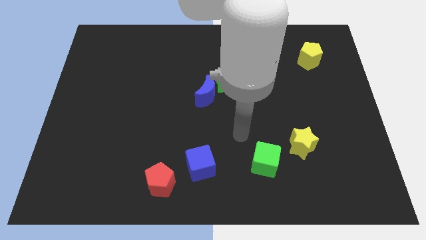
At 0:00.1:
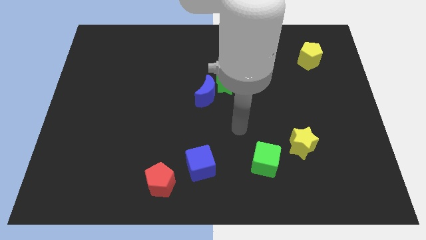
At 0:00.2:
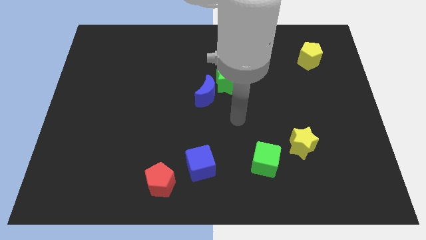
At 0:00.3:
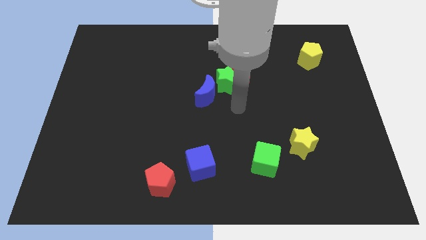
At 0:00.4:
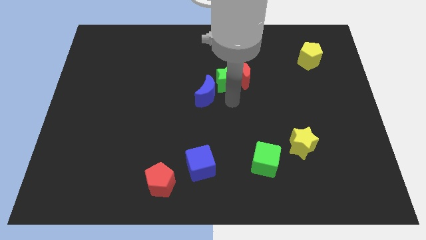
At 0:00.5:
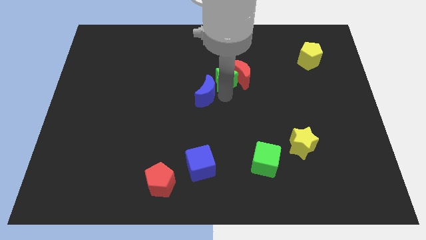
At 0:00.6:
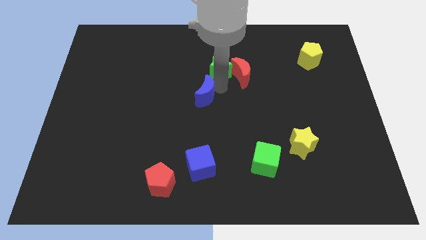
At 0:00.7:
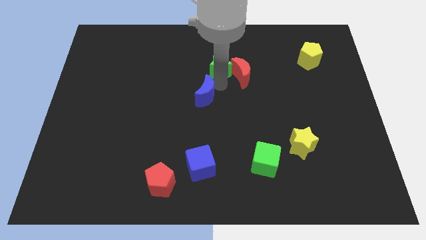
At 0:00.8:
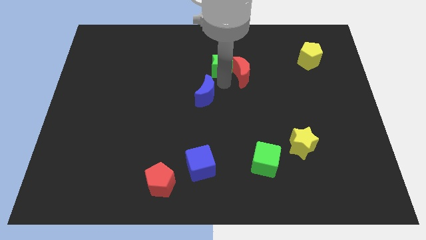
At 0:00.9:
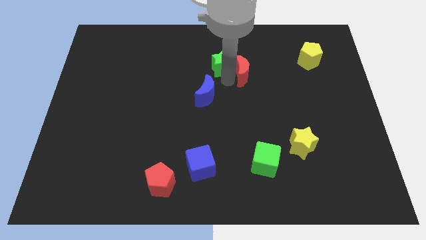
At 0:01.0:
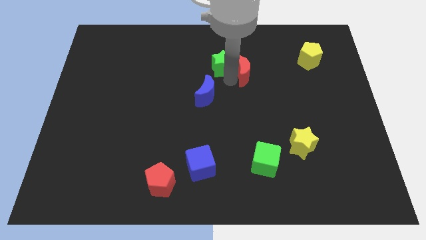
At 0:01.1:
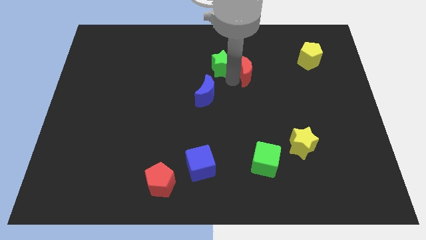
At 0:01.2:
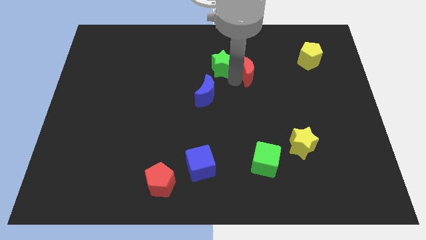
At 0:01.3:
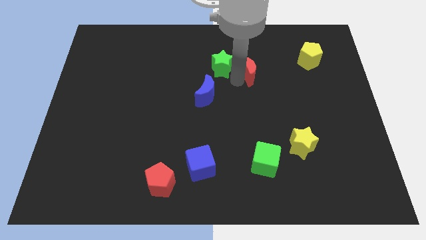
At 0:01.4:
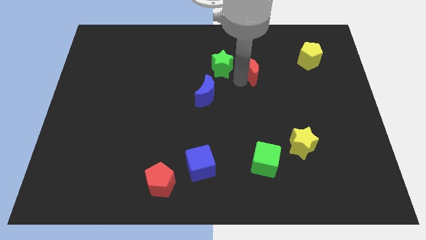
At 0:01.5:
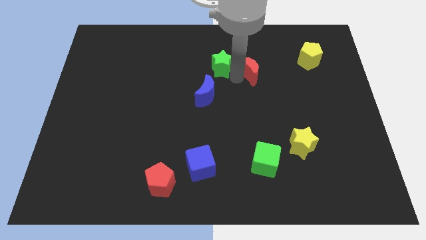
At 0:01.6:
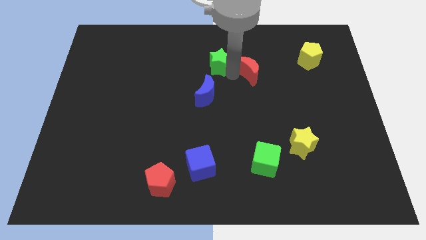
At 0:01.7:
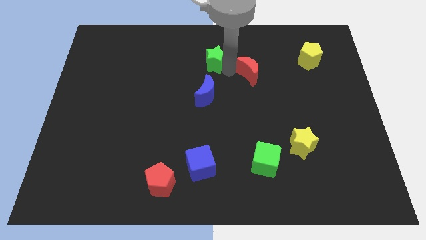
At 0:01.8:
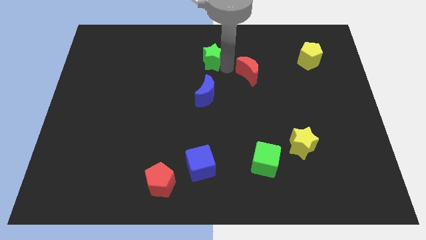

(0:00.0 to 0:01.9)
separate the red moon from the green star

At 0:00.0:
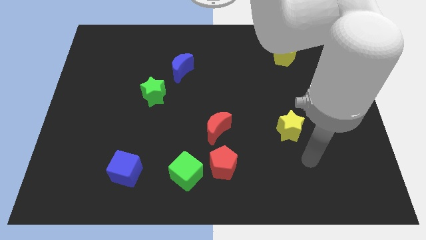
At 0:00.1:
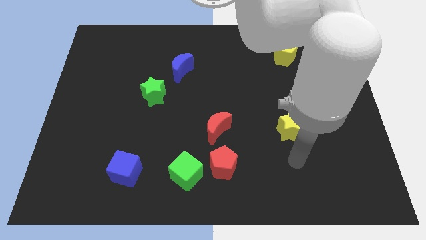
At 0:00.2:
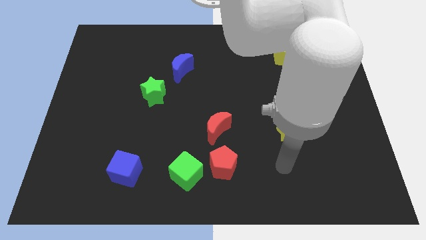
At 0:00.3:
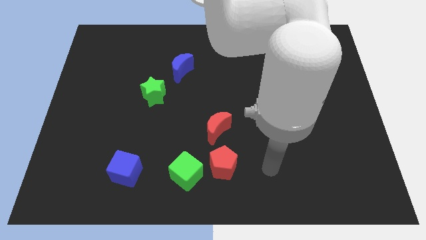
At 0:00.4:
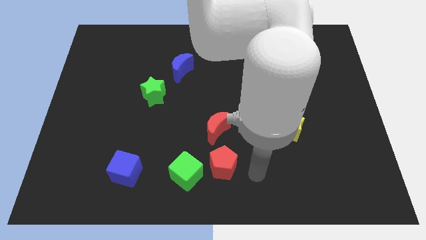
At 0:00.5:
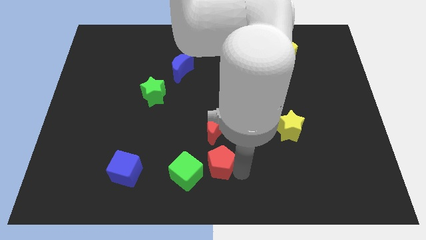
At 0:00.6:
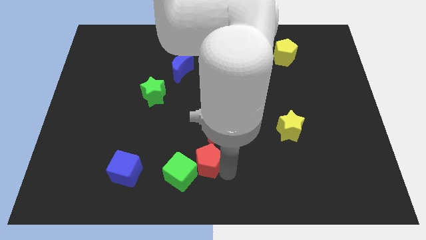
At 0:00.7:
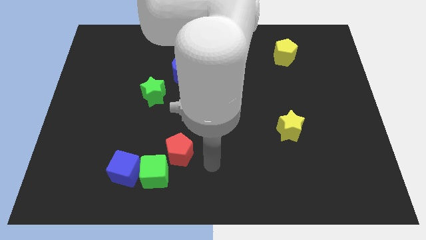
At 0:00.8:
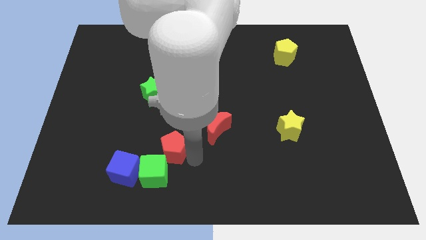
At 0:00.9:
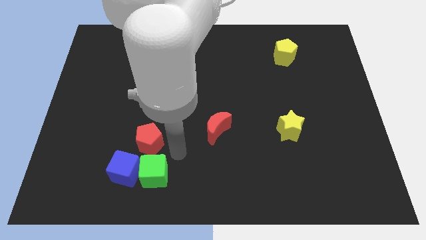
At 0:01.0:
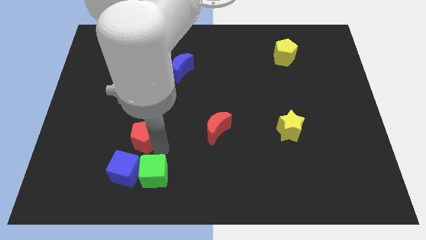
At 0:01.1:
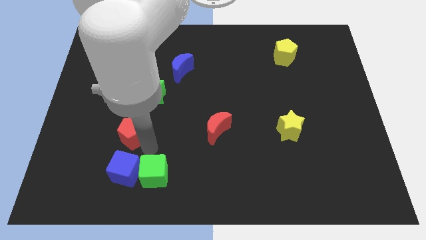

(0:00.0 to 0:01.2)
separate the green cube from the red pentagon

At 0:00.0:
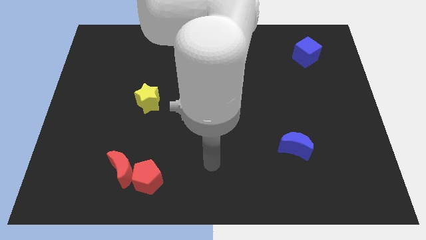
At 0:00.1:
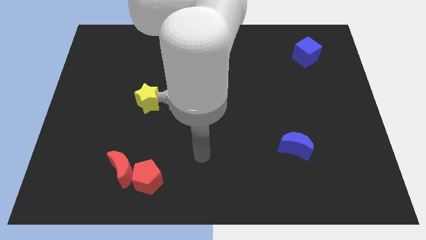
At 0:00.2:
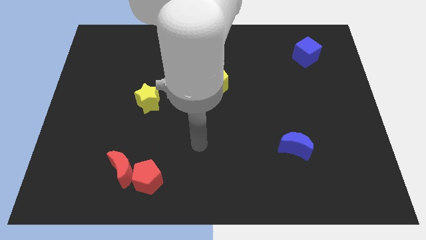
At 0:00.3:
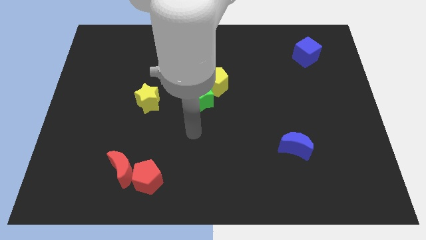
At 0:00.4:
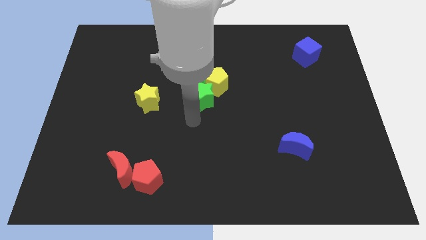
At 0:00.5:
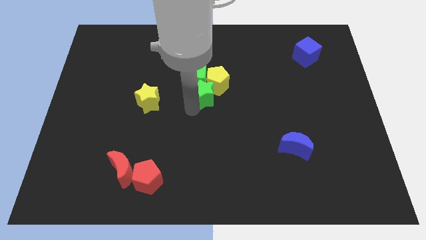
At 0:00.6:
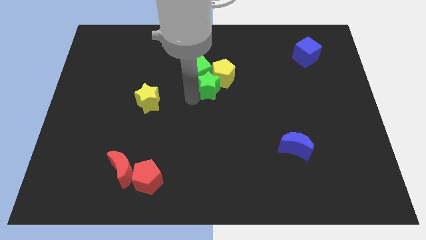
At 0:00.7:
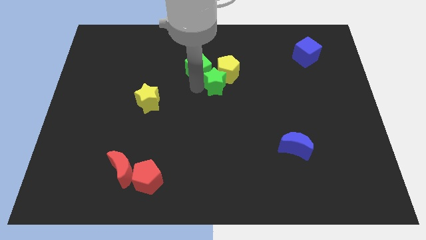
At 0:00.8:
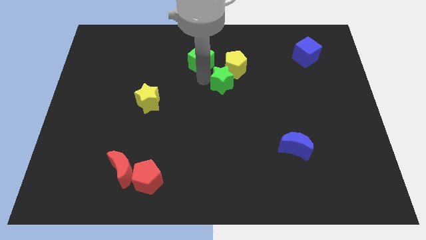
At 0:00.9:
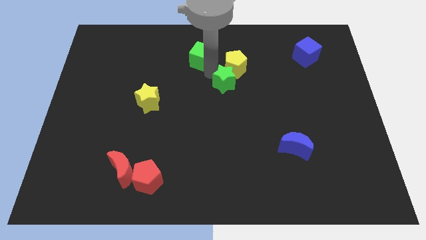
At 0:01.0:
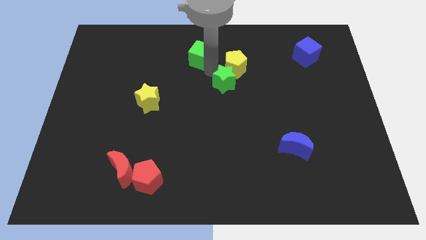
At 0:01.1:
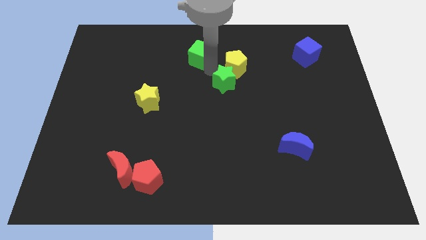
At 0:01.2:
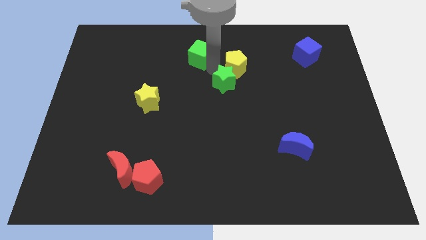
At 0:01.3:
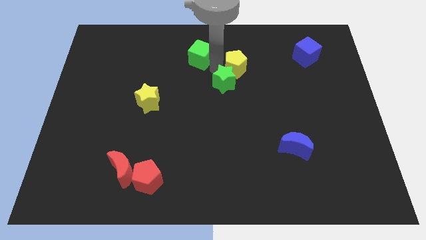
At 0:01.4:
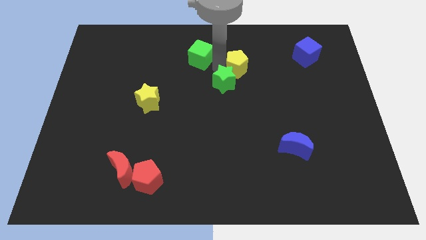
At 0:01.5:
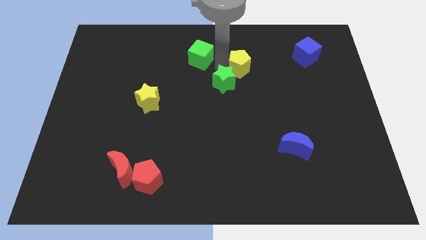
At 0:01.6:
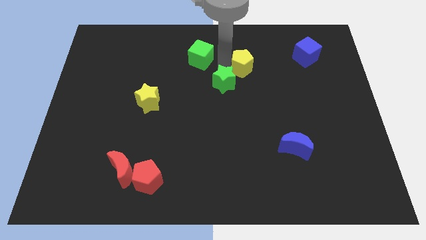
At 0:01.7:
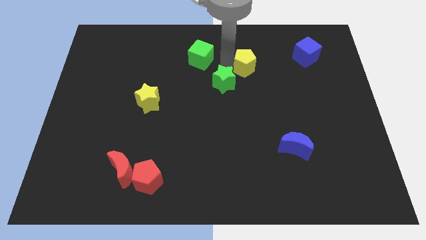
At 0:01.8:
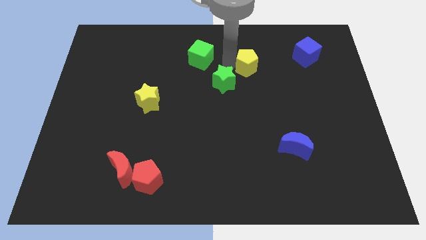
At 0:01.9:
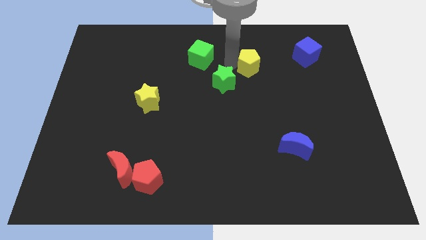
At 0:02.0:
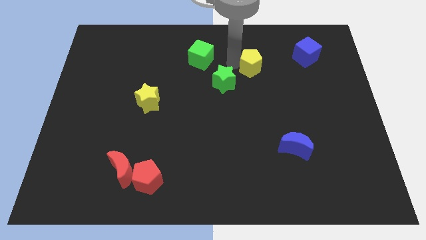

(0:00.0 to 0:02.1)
move the yellow pentagon away from the green cube and green star

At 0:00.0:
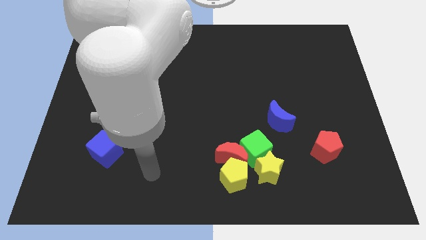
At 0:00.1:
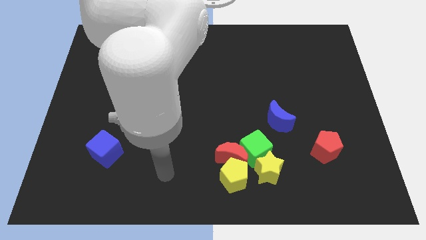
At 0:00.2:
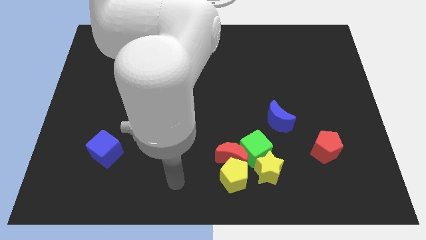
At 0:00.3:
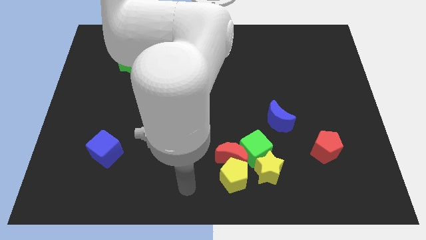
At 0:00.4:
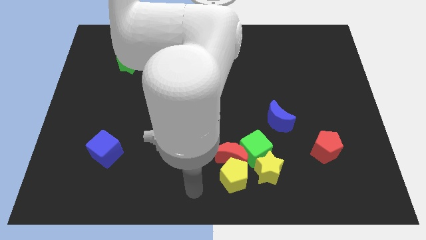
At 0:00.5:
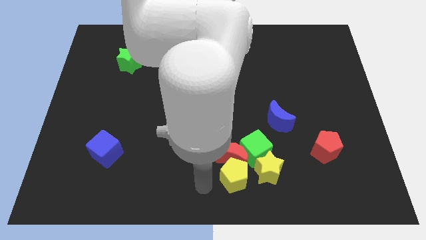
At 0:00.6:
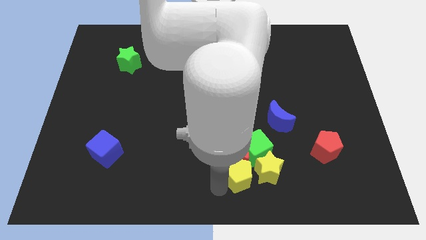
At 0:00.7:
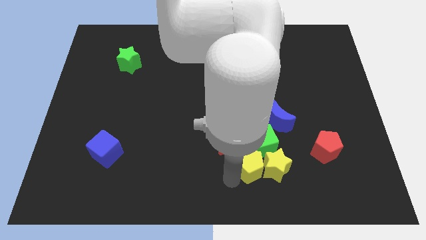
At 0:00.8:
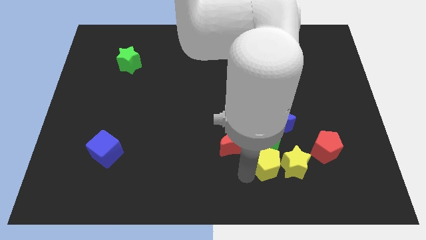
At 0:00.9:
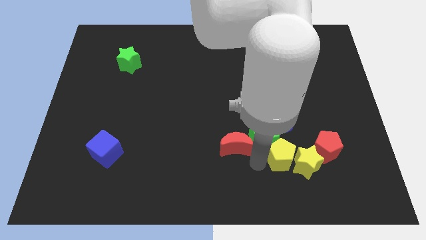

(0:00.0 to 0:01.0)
separate the red moon from the yellow pentagon, green cube, and yellow star

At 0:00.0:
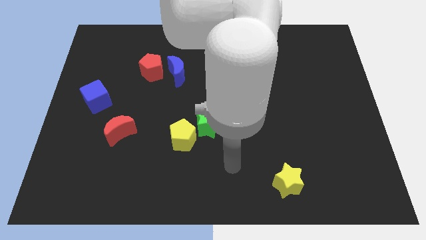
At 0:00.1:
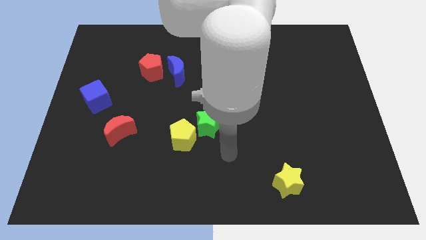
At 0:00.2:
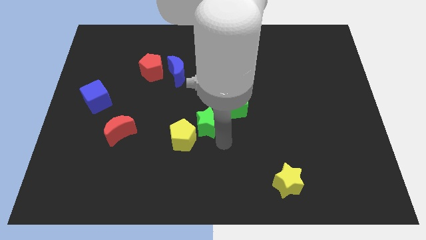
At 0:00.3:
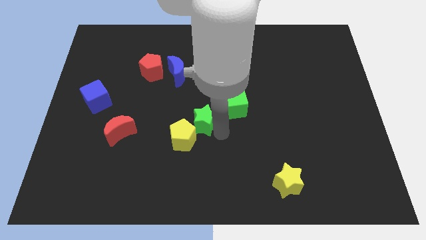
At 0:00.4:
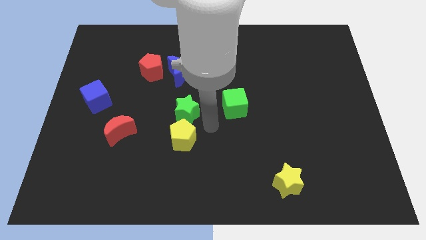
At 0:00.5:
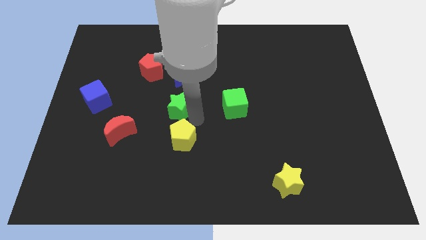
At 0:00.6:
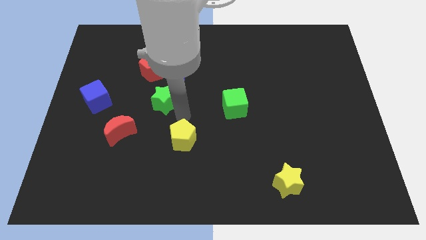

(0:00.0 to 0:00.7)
move the yellow pentagon away from the green star

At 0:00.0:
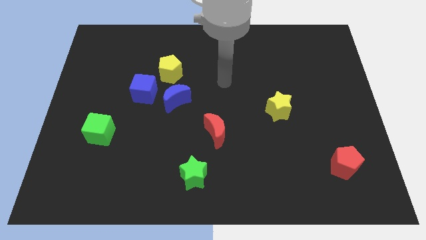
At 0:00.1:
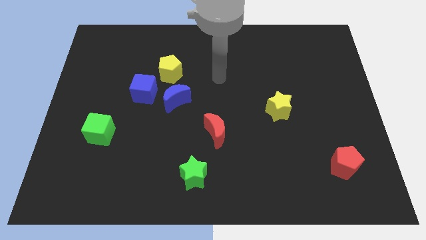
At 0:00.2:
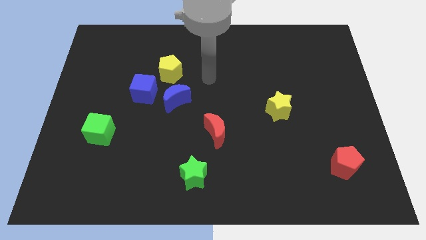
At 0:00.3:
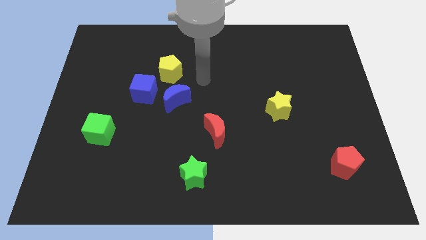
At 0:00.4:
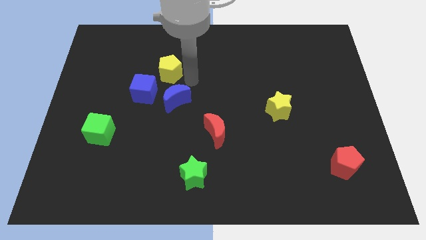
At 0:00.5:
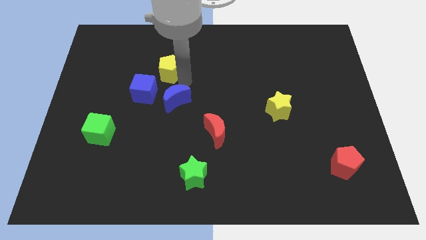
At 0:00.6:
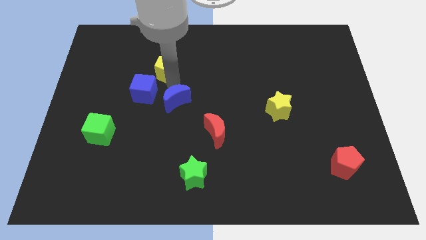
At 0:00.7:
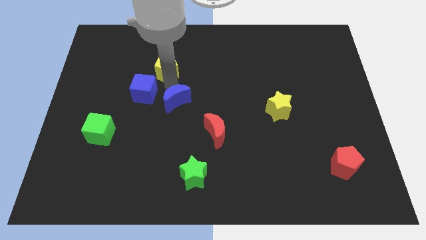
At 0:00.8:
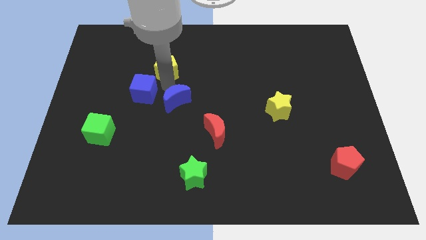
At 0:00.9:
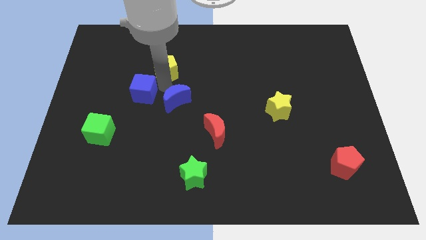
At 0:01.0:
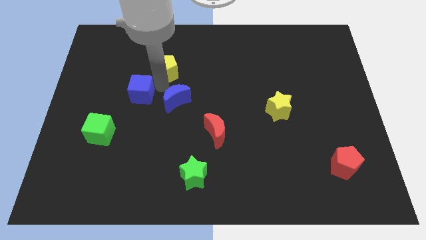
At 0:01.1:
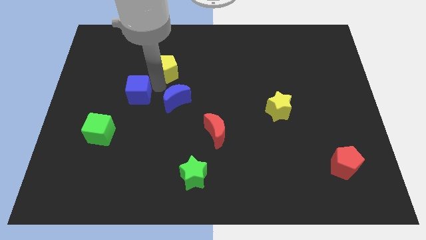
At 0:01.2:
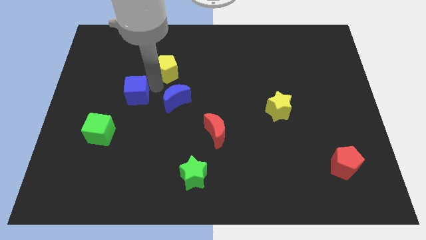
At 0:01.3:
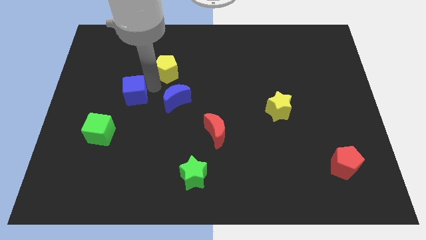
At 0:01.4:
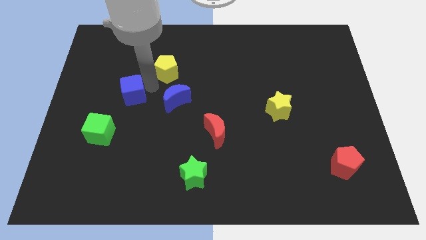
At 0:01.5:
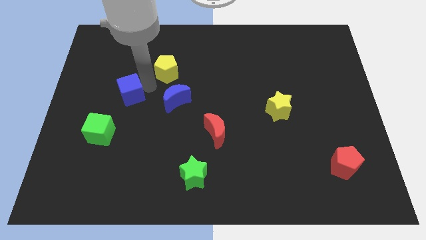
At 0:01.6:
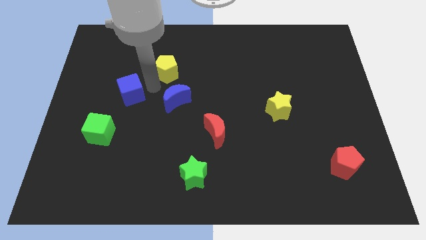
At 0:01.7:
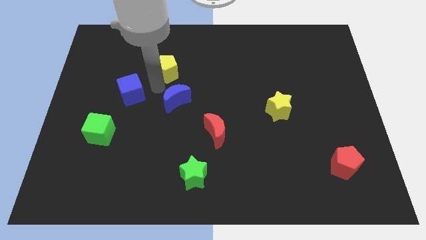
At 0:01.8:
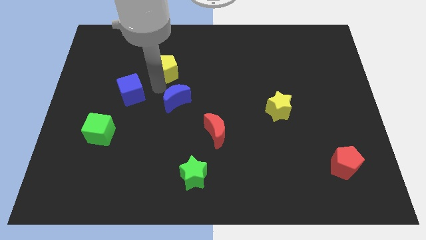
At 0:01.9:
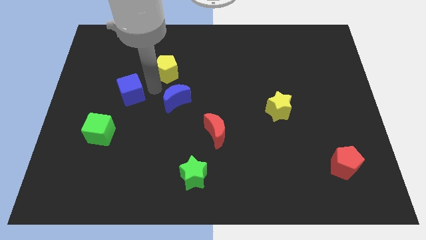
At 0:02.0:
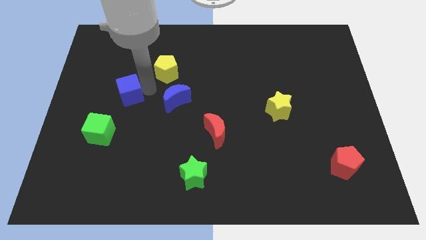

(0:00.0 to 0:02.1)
pull the blue cube apart from the blue moon and yellow pentagon

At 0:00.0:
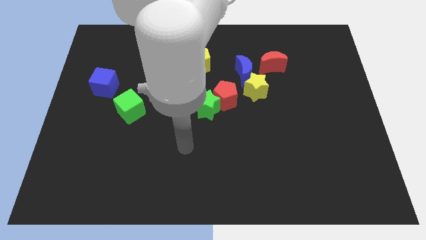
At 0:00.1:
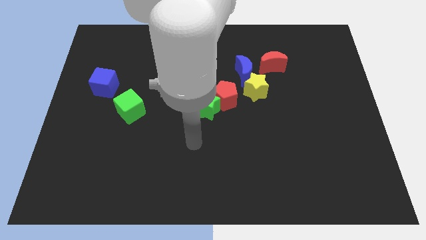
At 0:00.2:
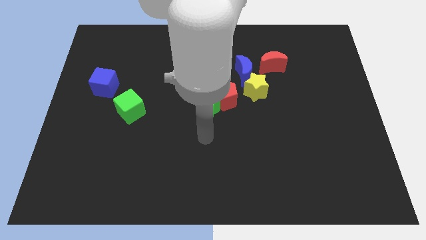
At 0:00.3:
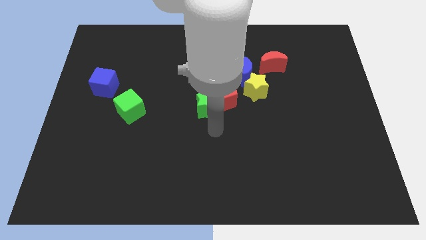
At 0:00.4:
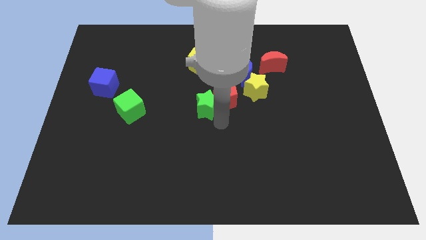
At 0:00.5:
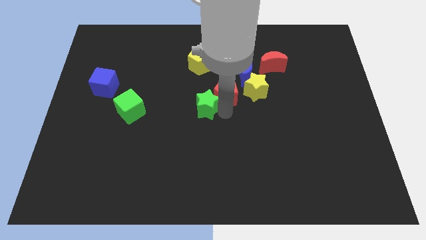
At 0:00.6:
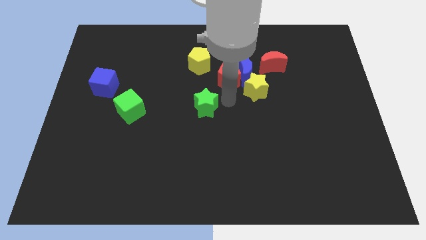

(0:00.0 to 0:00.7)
separate the green star from the red pentagon
